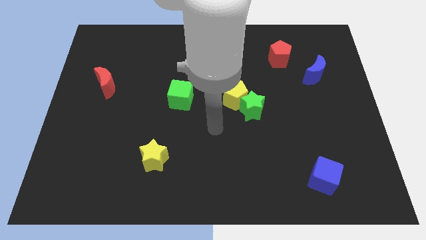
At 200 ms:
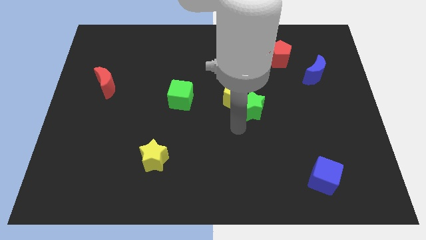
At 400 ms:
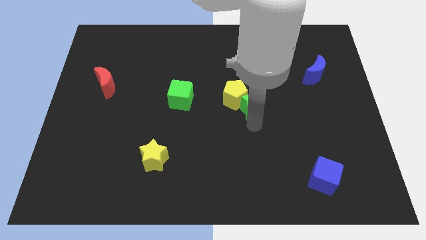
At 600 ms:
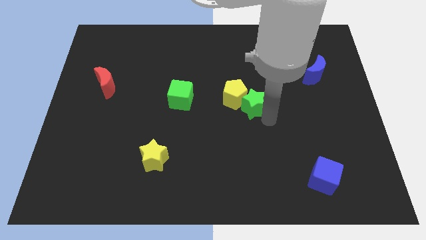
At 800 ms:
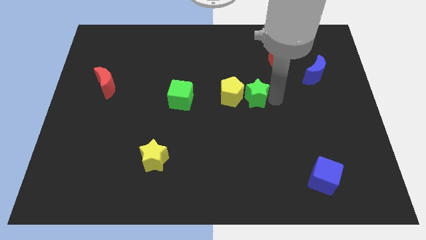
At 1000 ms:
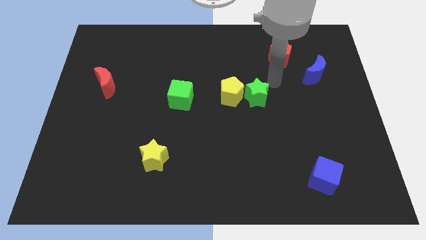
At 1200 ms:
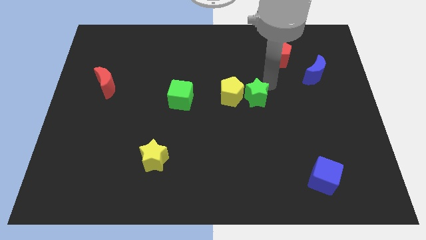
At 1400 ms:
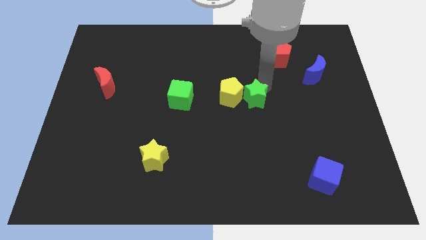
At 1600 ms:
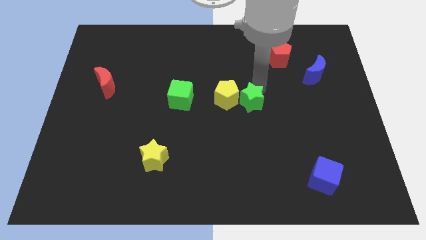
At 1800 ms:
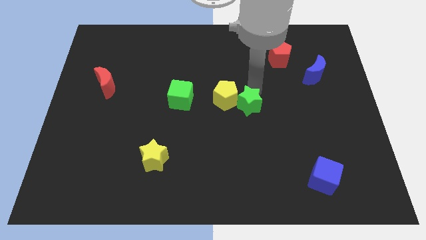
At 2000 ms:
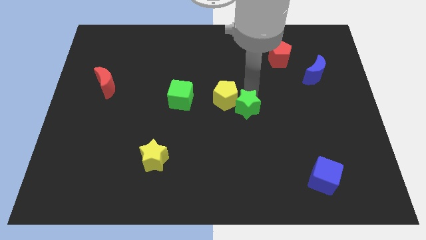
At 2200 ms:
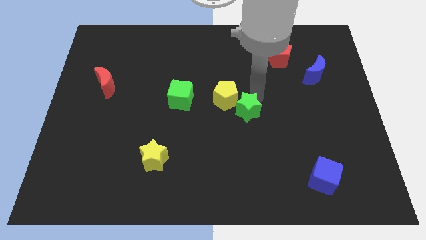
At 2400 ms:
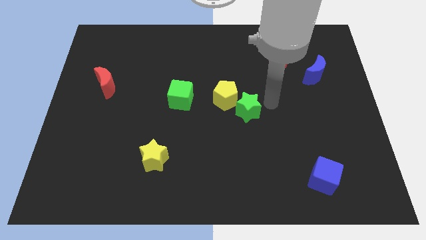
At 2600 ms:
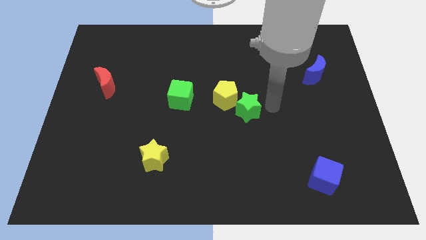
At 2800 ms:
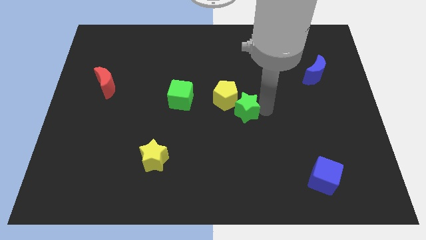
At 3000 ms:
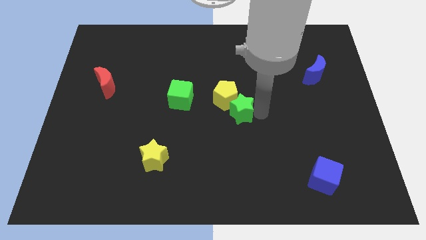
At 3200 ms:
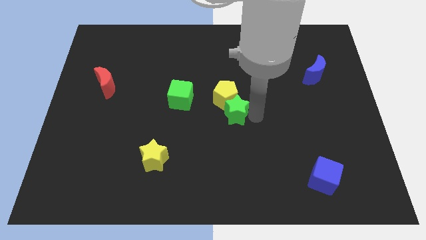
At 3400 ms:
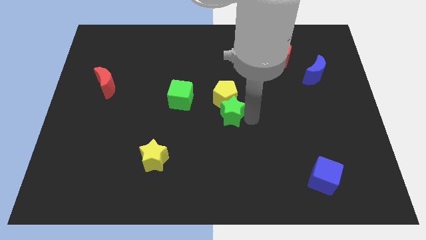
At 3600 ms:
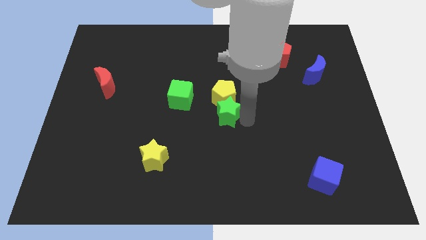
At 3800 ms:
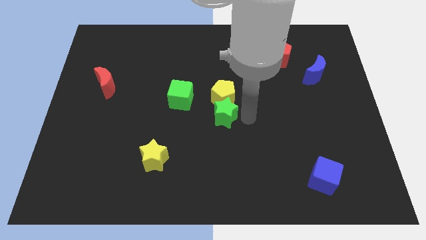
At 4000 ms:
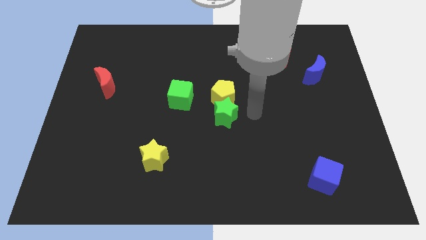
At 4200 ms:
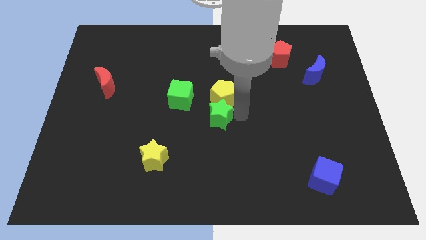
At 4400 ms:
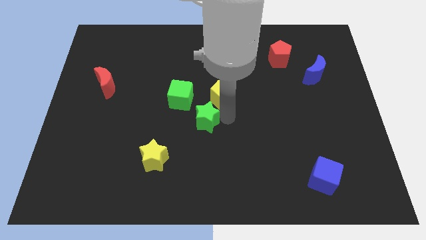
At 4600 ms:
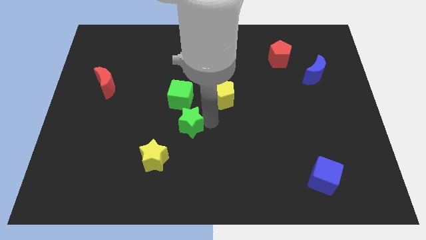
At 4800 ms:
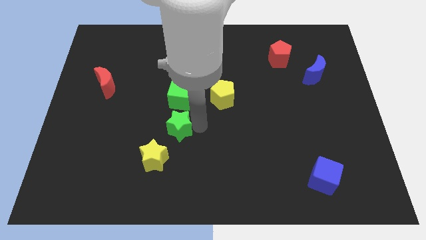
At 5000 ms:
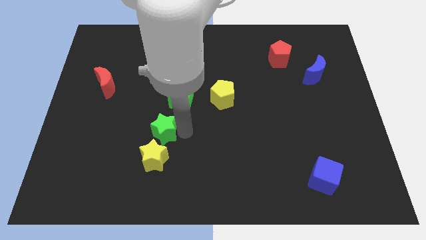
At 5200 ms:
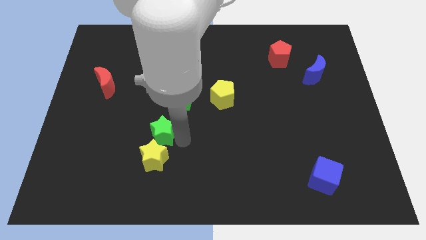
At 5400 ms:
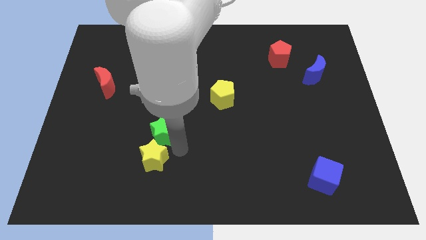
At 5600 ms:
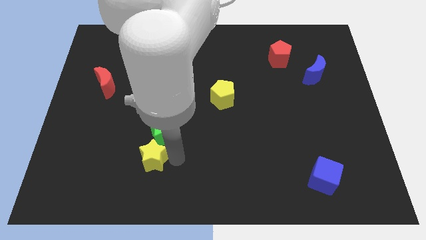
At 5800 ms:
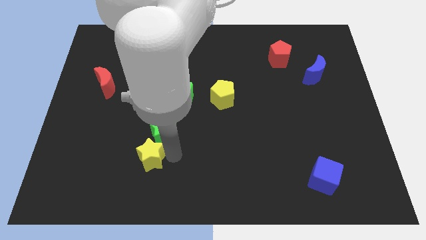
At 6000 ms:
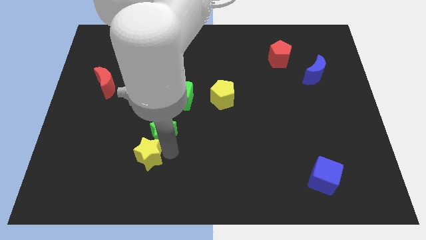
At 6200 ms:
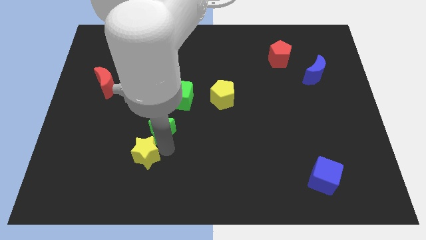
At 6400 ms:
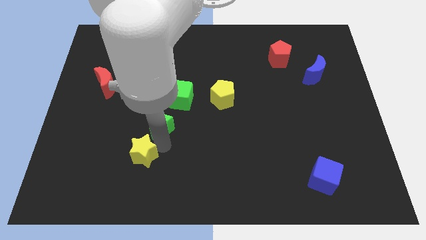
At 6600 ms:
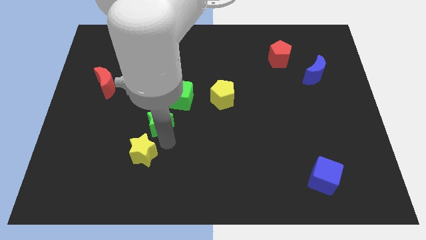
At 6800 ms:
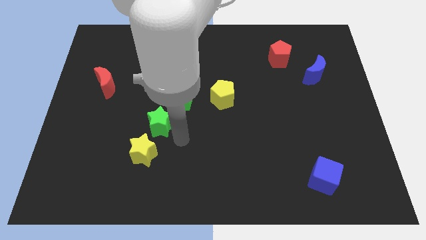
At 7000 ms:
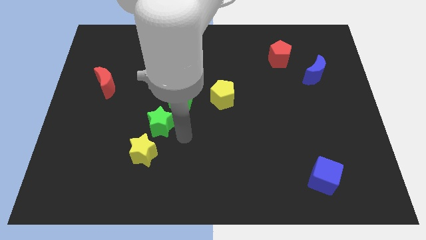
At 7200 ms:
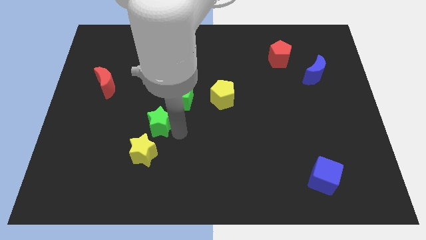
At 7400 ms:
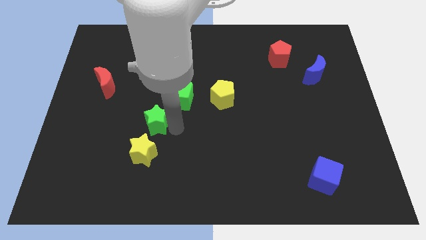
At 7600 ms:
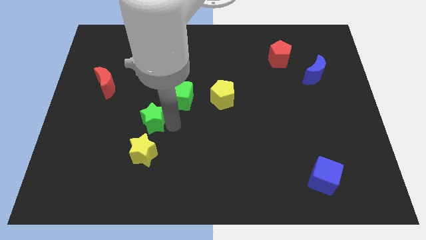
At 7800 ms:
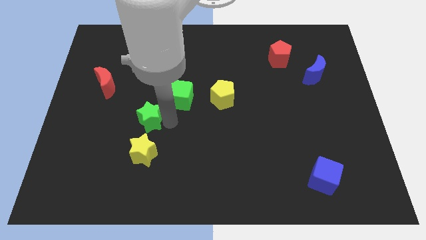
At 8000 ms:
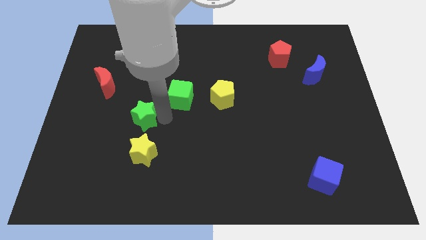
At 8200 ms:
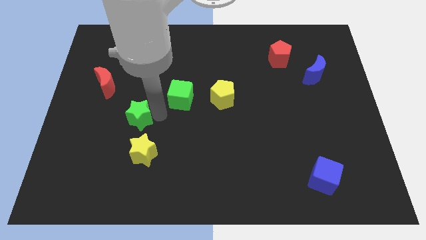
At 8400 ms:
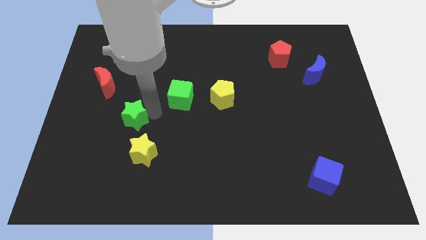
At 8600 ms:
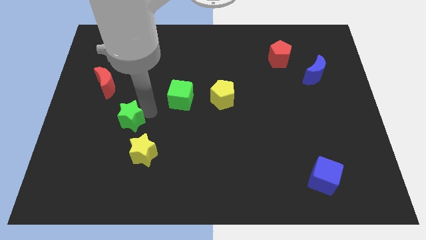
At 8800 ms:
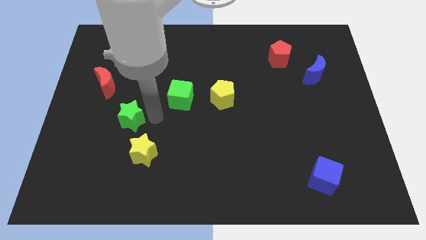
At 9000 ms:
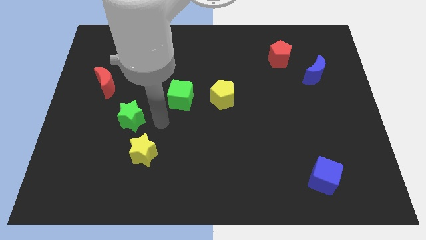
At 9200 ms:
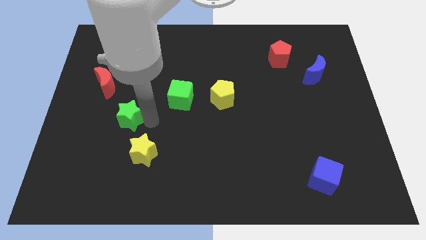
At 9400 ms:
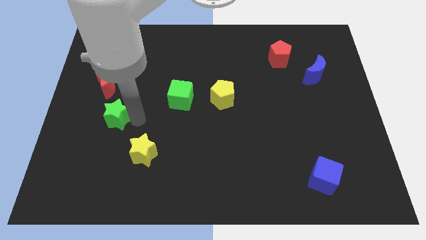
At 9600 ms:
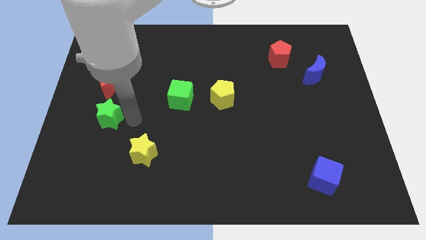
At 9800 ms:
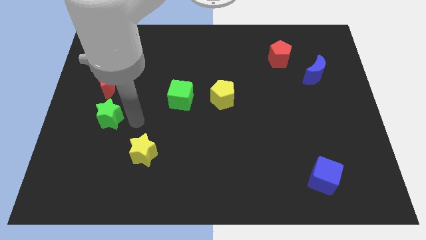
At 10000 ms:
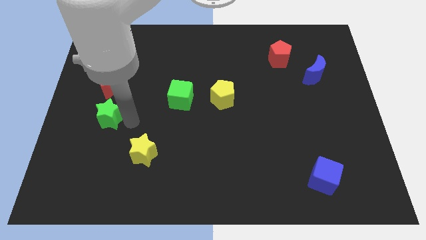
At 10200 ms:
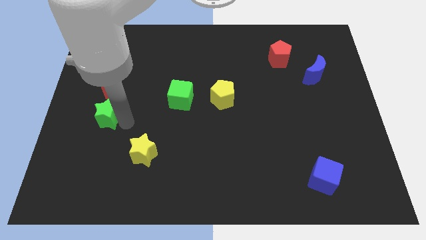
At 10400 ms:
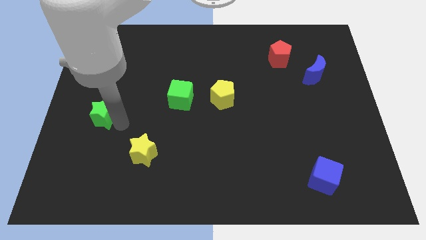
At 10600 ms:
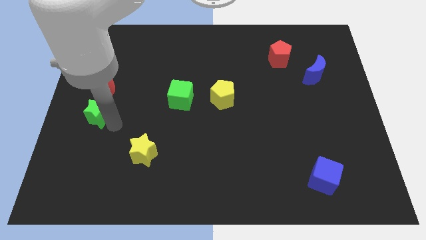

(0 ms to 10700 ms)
move the green star to the left side of the board

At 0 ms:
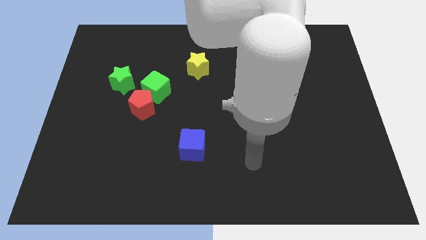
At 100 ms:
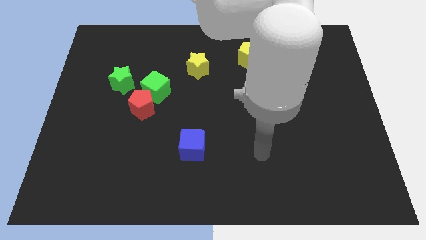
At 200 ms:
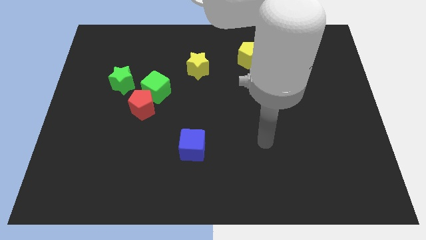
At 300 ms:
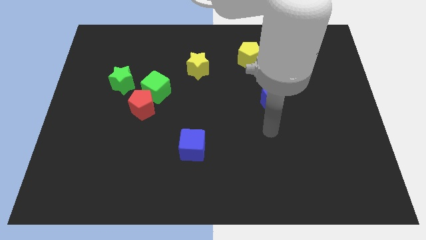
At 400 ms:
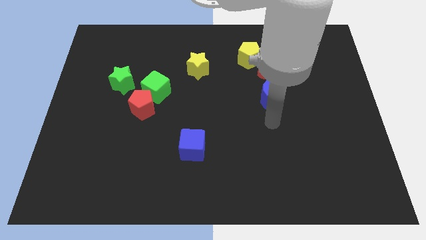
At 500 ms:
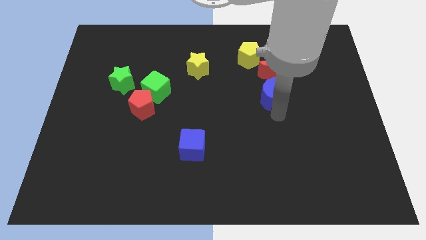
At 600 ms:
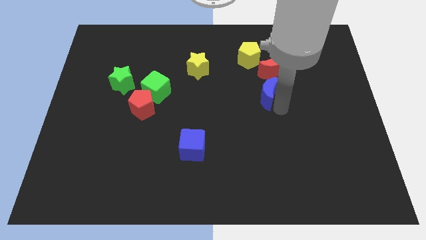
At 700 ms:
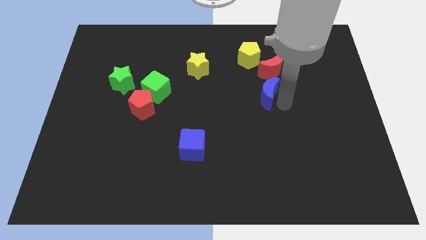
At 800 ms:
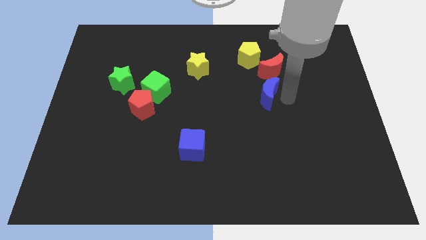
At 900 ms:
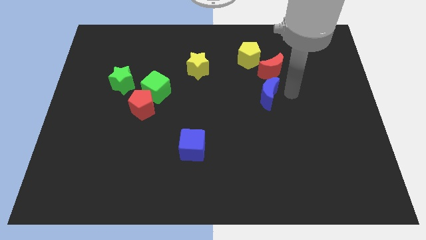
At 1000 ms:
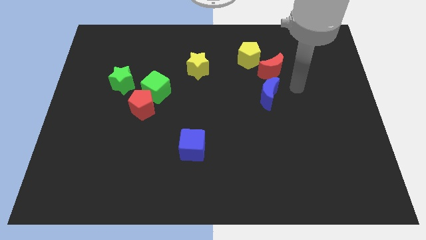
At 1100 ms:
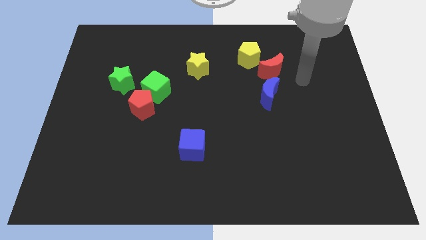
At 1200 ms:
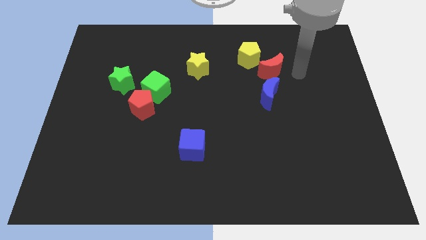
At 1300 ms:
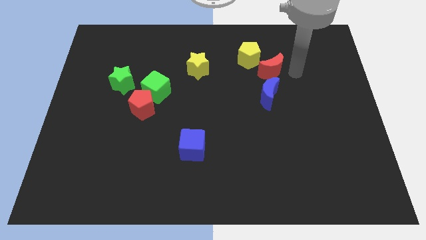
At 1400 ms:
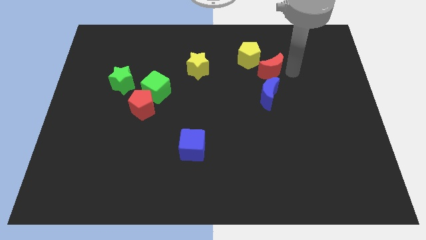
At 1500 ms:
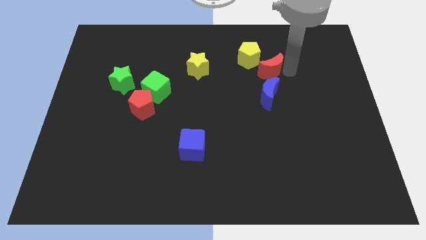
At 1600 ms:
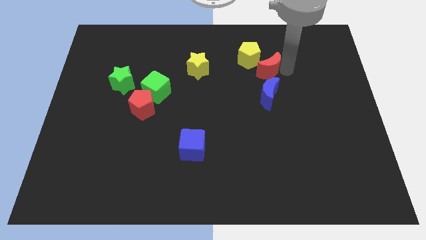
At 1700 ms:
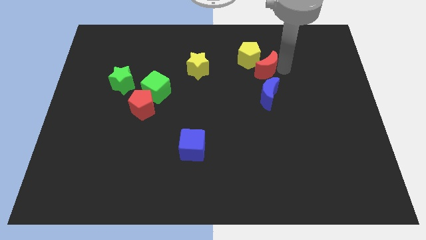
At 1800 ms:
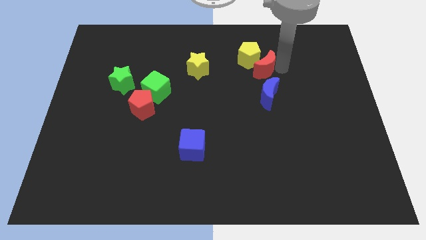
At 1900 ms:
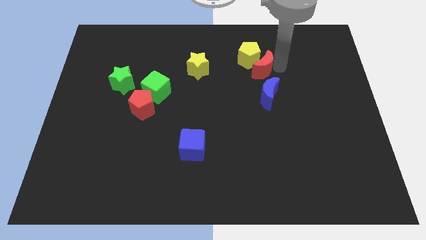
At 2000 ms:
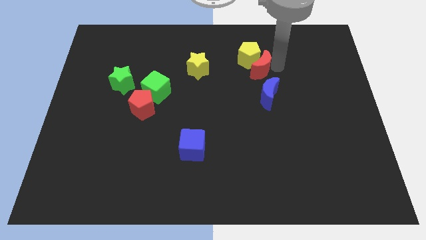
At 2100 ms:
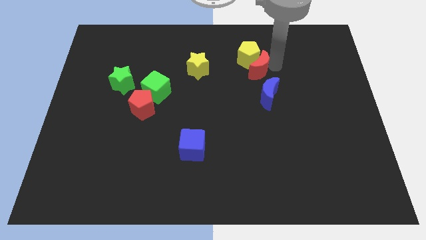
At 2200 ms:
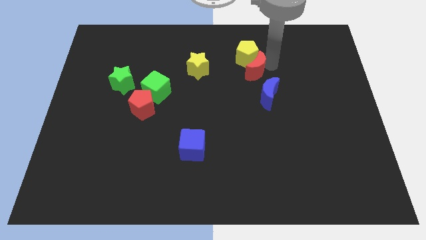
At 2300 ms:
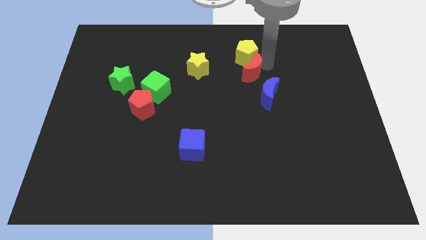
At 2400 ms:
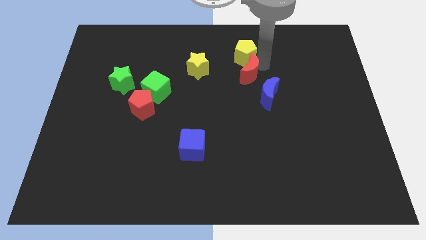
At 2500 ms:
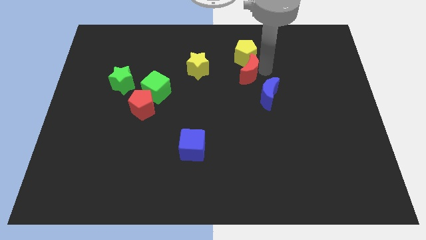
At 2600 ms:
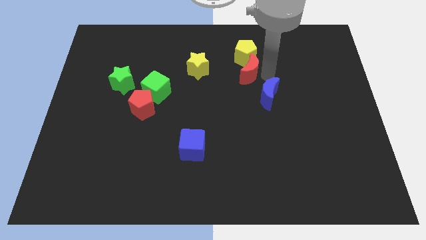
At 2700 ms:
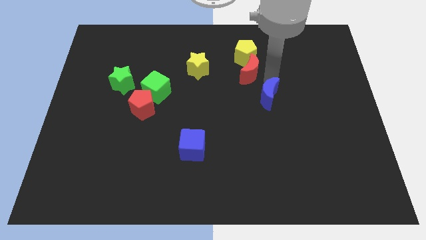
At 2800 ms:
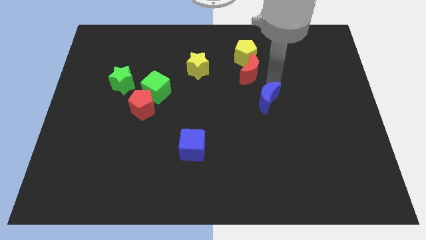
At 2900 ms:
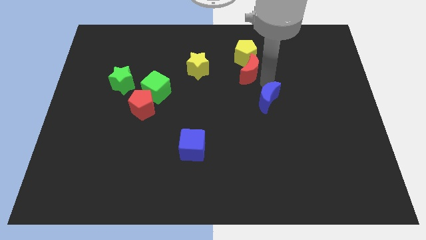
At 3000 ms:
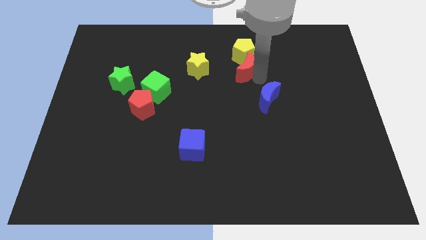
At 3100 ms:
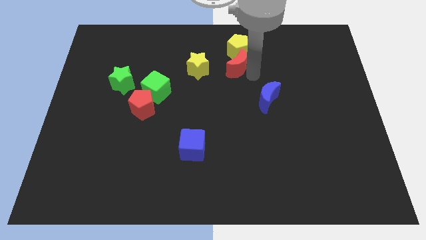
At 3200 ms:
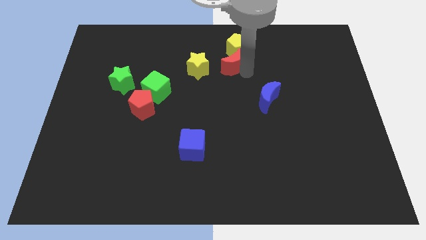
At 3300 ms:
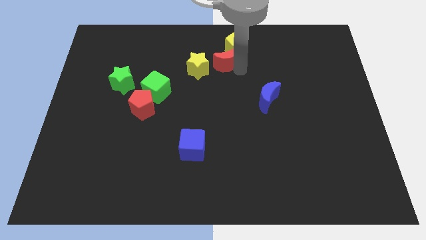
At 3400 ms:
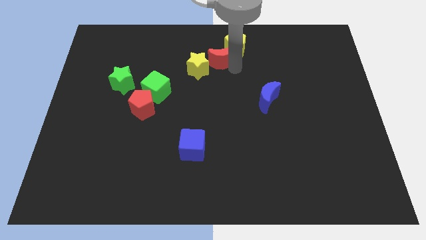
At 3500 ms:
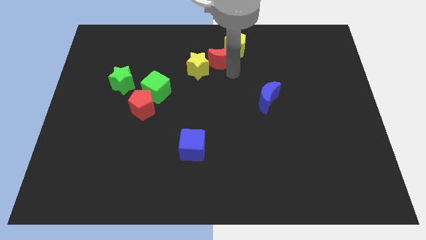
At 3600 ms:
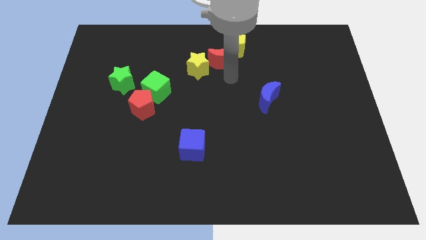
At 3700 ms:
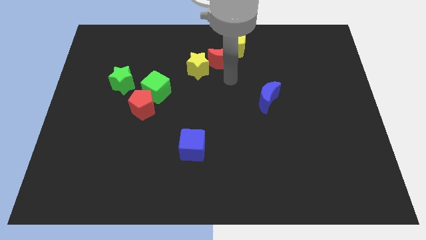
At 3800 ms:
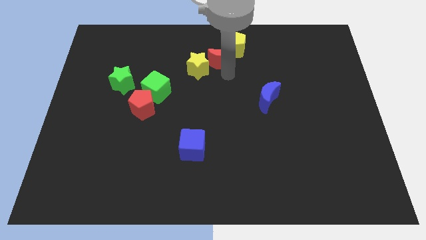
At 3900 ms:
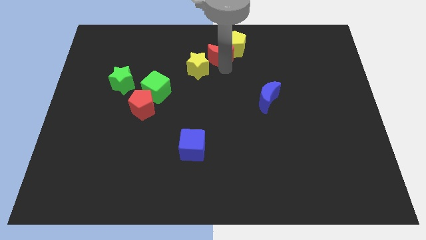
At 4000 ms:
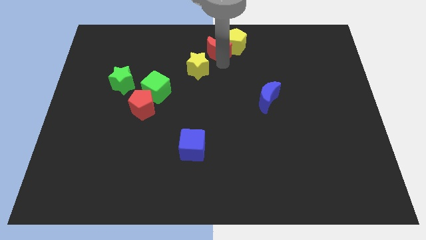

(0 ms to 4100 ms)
push the red moon to the top
